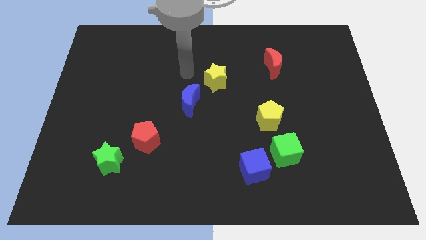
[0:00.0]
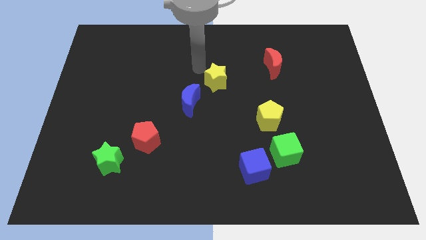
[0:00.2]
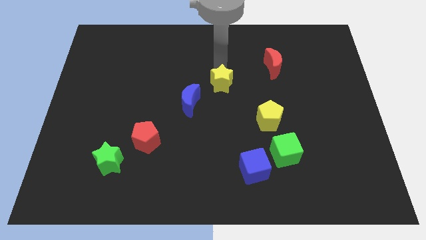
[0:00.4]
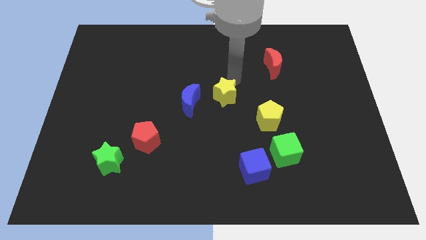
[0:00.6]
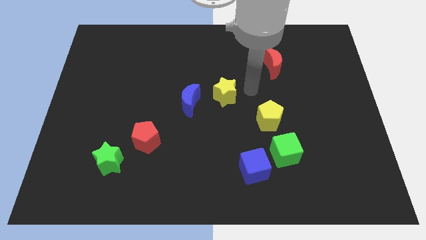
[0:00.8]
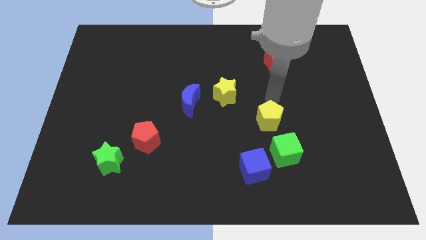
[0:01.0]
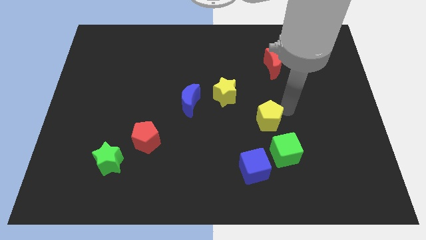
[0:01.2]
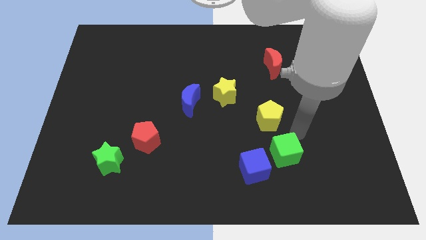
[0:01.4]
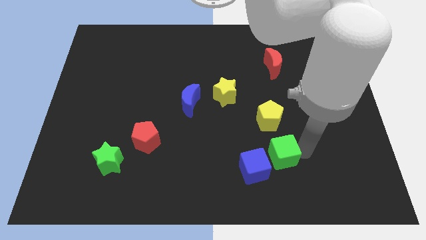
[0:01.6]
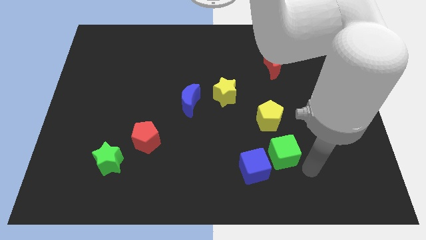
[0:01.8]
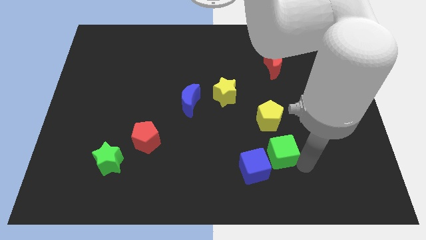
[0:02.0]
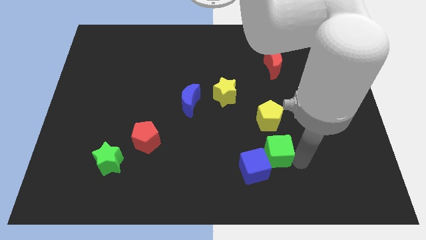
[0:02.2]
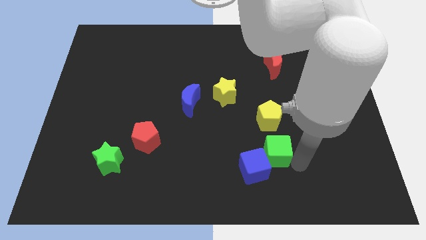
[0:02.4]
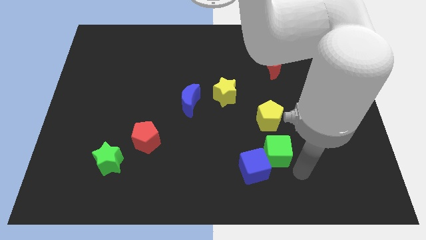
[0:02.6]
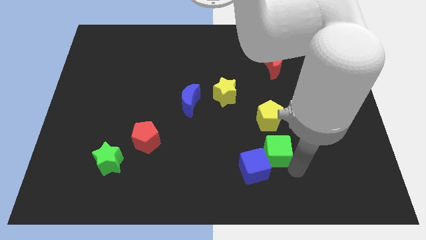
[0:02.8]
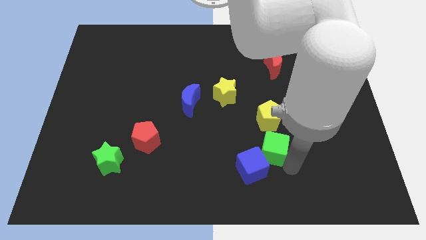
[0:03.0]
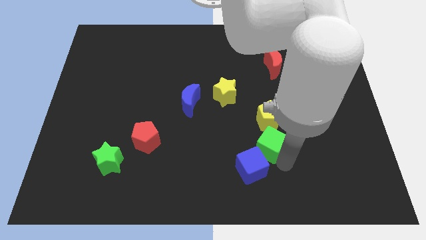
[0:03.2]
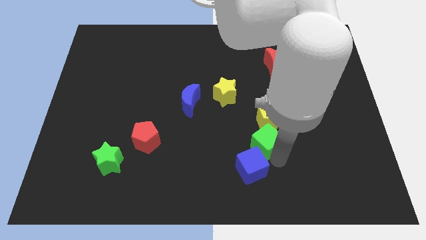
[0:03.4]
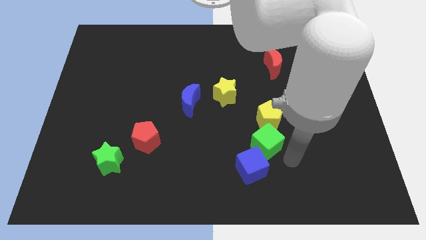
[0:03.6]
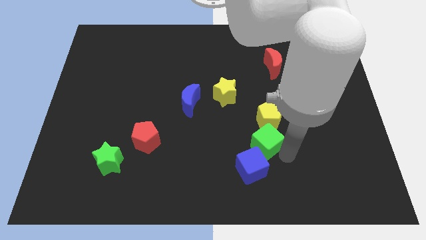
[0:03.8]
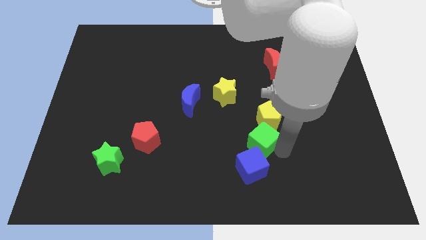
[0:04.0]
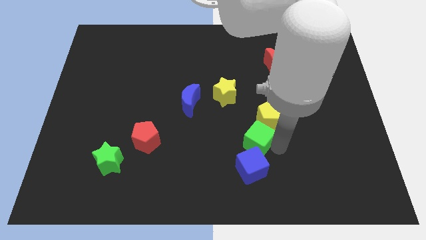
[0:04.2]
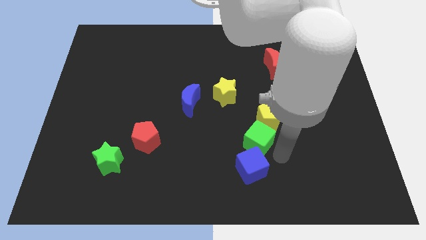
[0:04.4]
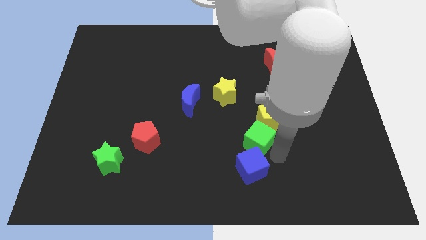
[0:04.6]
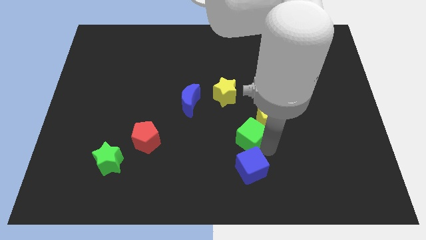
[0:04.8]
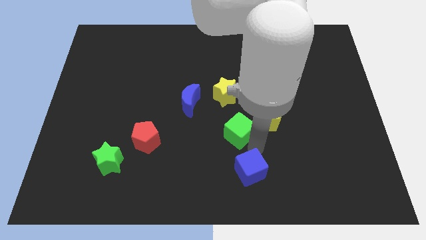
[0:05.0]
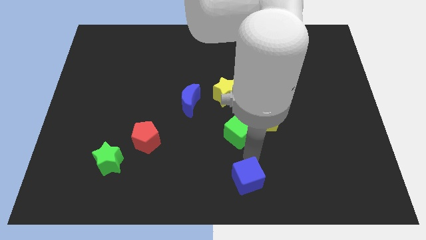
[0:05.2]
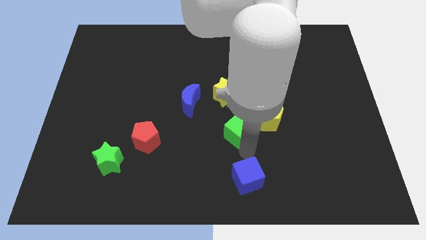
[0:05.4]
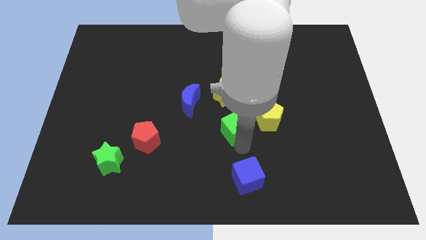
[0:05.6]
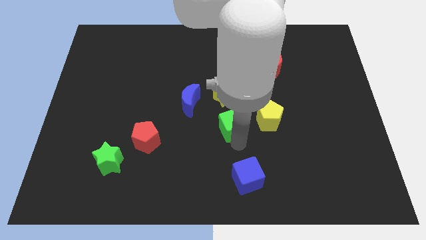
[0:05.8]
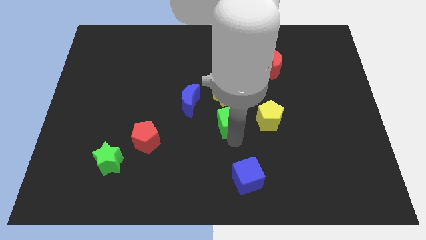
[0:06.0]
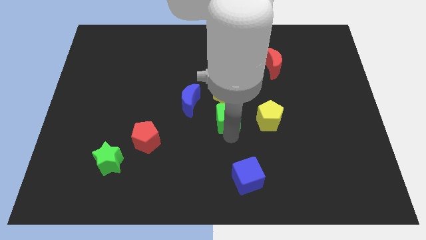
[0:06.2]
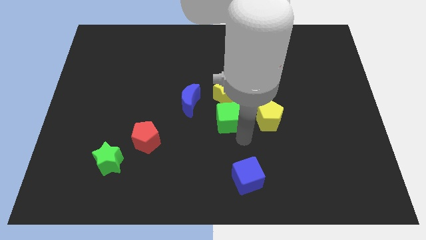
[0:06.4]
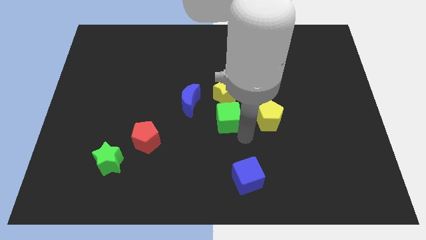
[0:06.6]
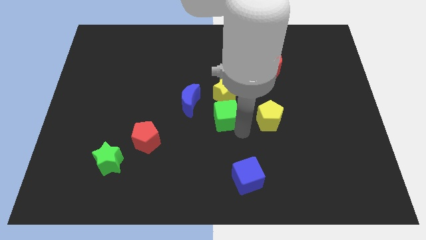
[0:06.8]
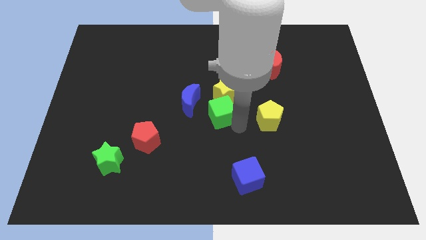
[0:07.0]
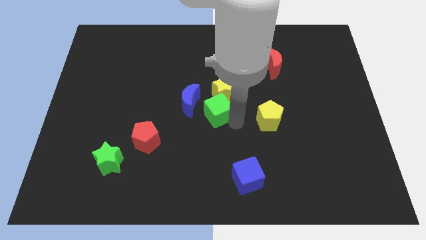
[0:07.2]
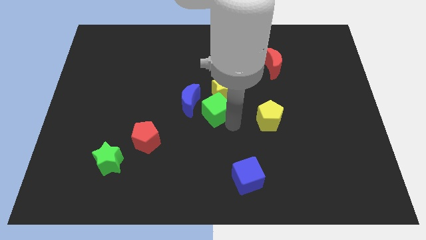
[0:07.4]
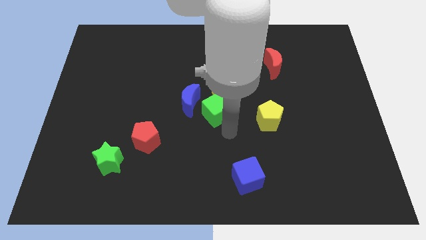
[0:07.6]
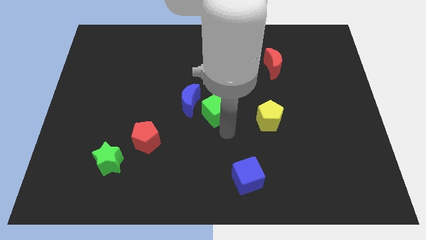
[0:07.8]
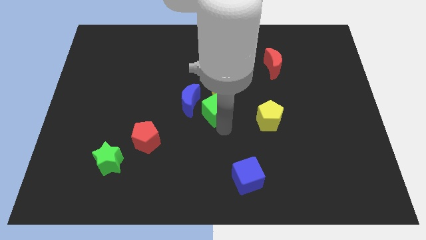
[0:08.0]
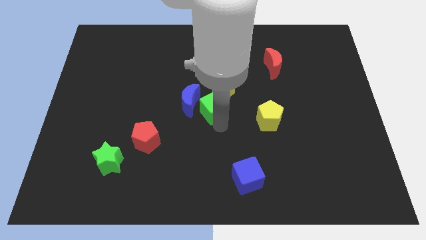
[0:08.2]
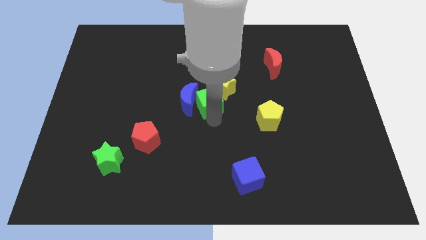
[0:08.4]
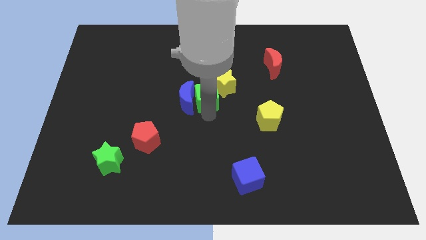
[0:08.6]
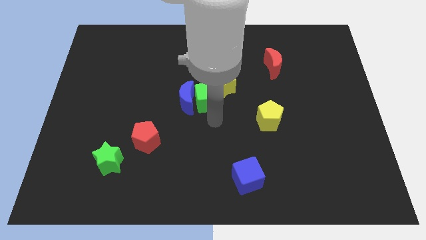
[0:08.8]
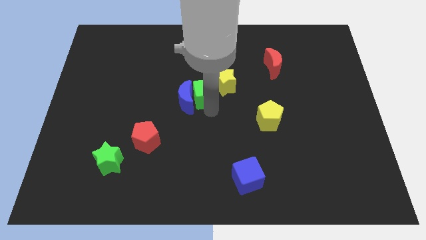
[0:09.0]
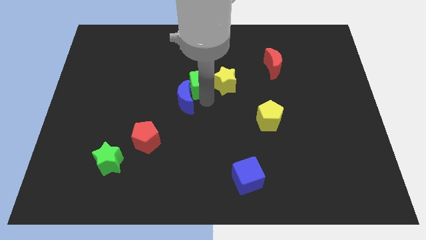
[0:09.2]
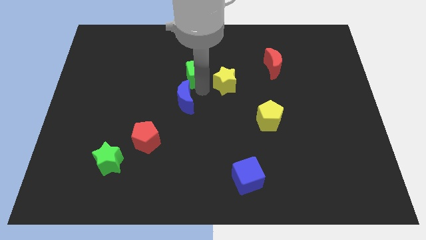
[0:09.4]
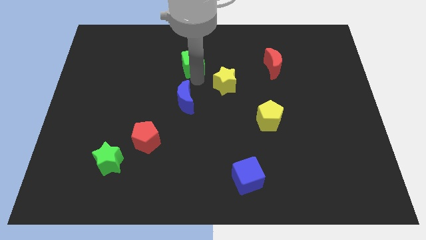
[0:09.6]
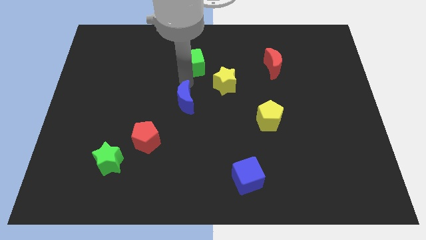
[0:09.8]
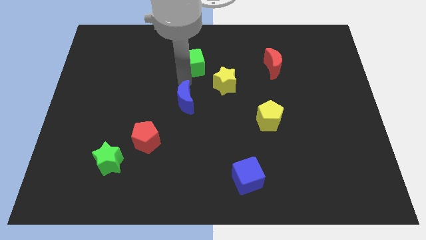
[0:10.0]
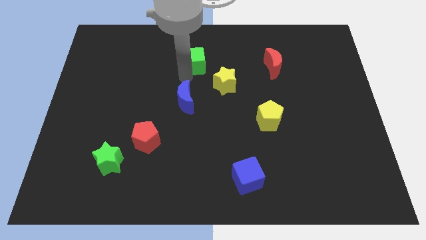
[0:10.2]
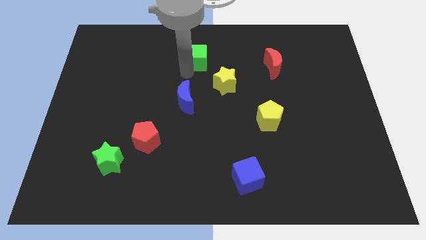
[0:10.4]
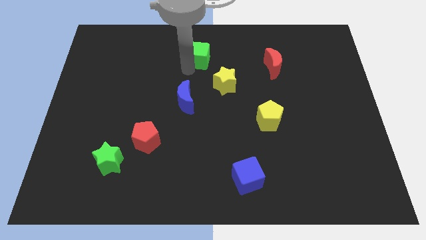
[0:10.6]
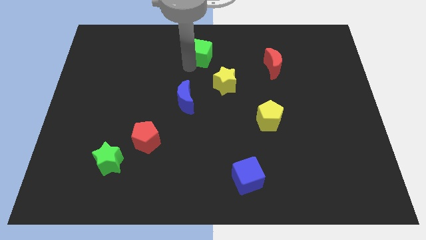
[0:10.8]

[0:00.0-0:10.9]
slide the green cube to the towards your base

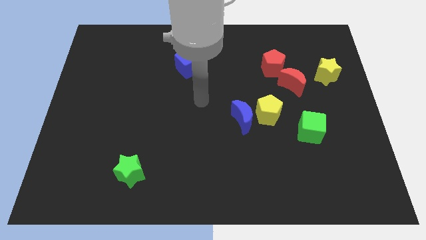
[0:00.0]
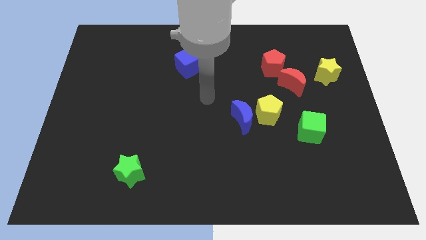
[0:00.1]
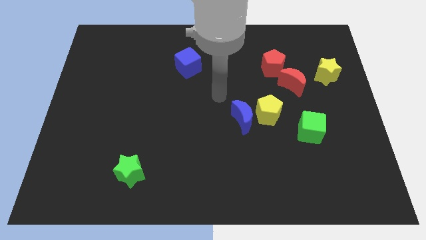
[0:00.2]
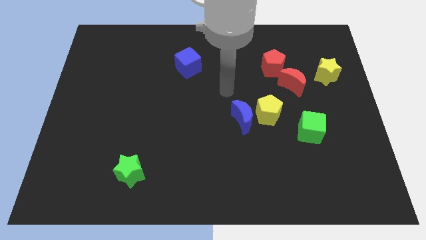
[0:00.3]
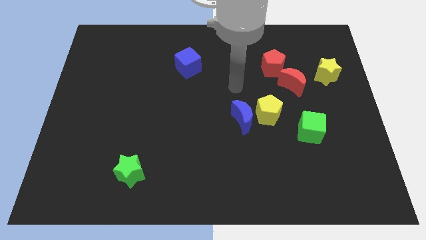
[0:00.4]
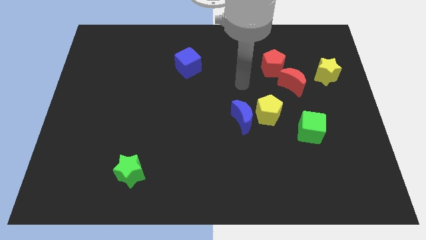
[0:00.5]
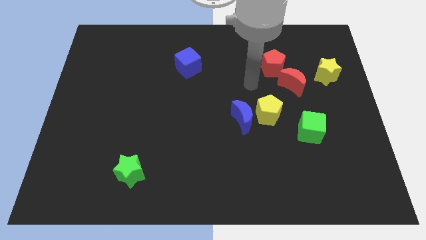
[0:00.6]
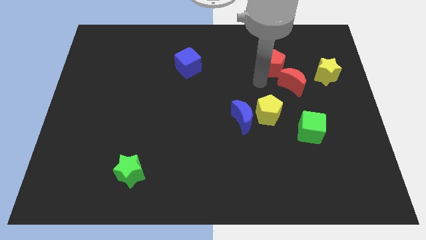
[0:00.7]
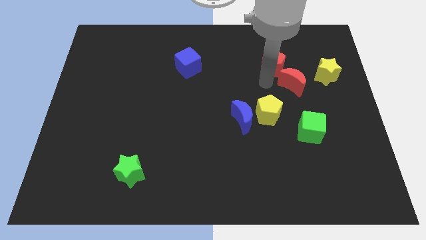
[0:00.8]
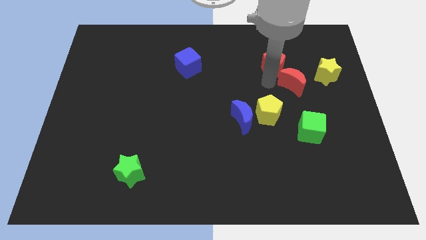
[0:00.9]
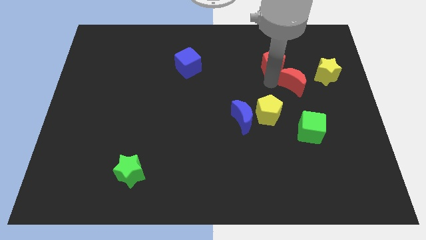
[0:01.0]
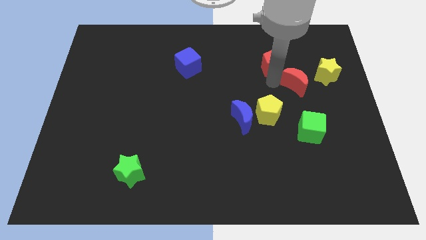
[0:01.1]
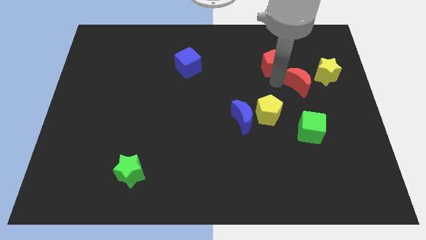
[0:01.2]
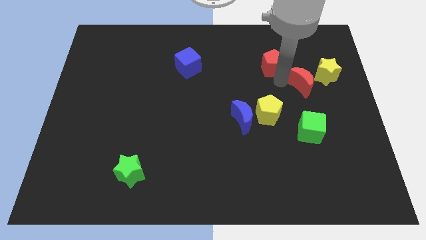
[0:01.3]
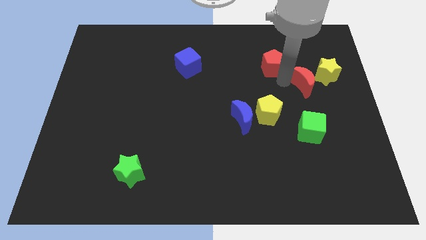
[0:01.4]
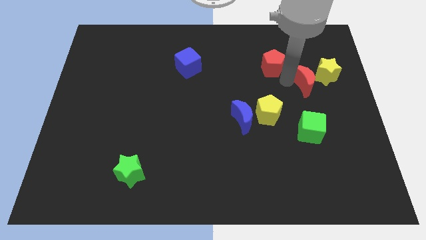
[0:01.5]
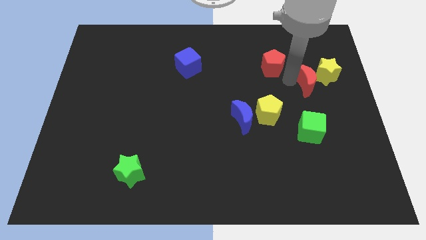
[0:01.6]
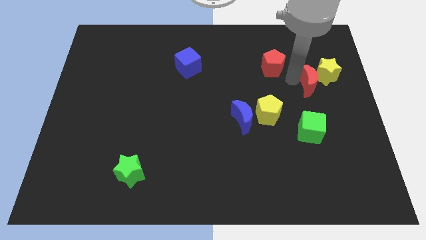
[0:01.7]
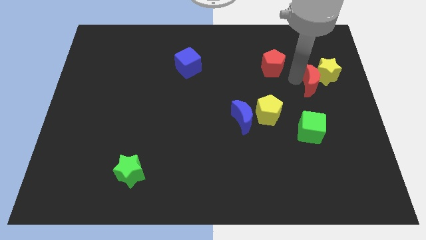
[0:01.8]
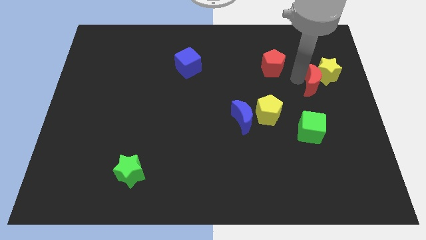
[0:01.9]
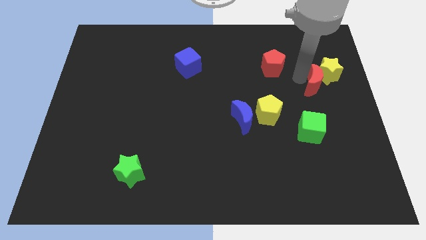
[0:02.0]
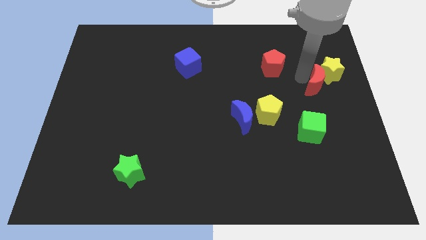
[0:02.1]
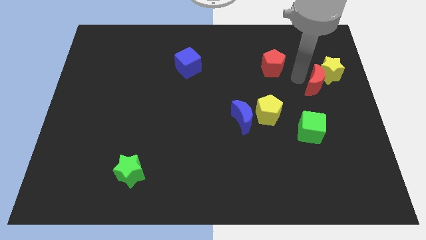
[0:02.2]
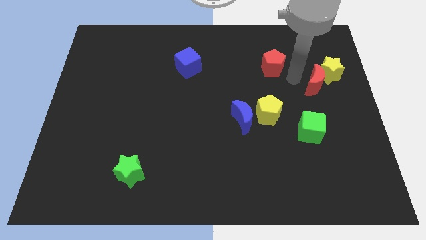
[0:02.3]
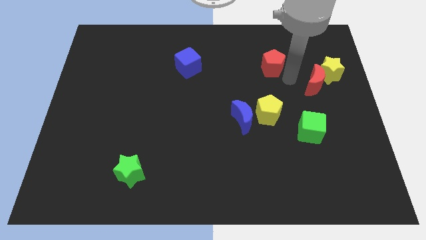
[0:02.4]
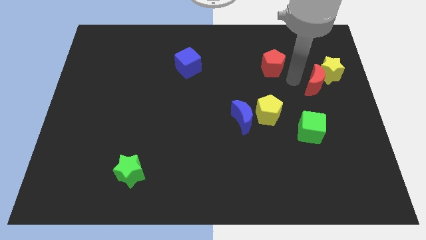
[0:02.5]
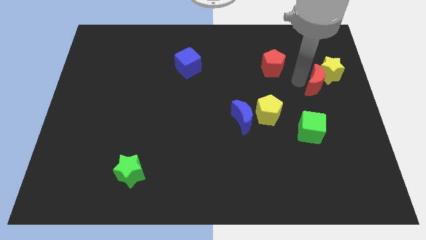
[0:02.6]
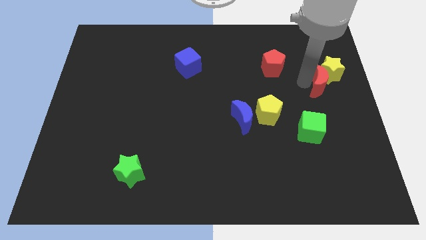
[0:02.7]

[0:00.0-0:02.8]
move the red moon to the center right
